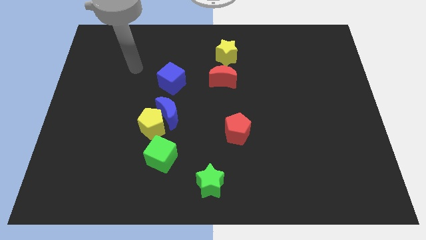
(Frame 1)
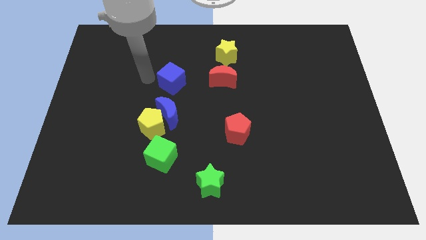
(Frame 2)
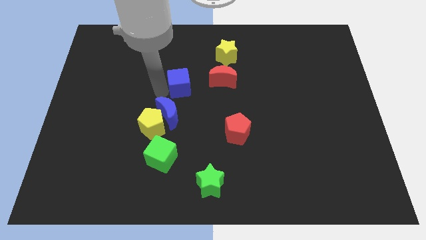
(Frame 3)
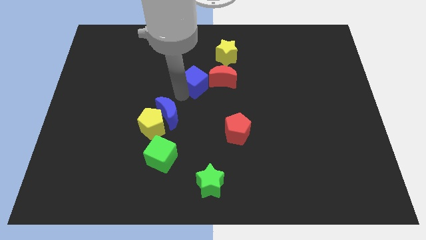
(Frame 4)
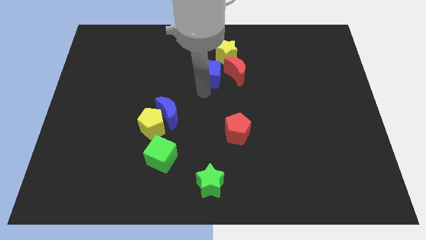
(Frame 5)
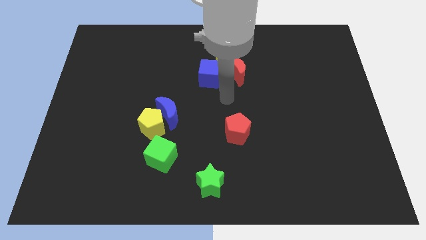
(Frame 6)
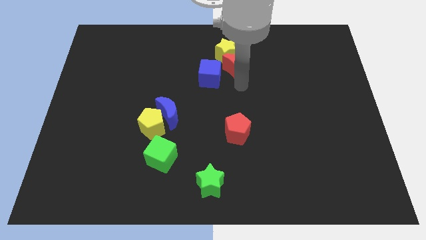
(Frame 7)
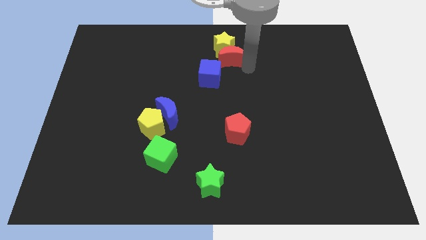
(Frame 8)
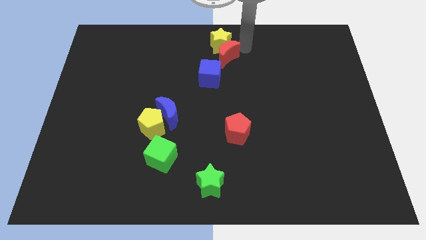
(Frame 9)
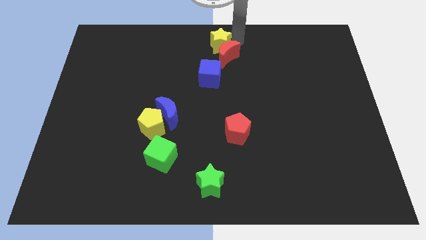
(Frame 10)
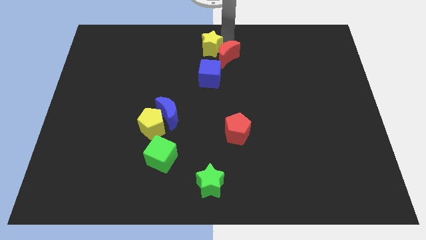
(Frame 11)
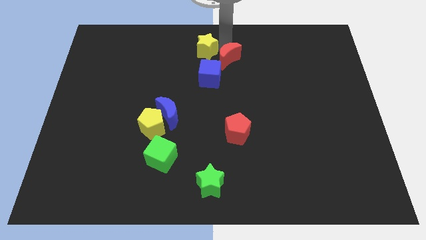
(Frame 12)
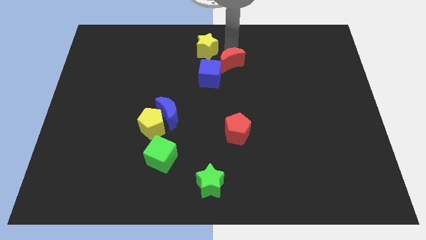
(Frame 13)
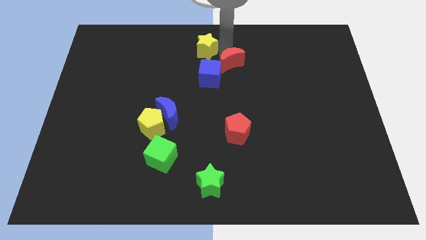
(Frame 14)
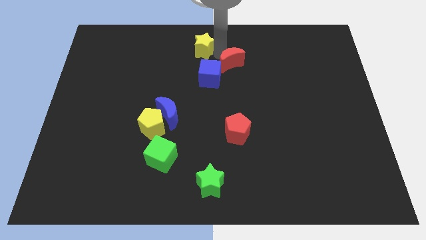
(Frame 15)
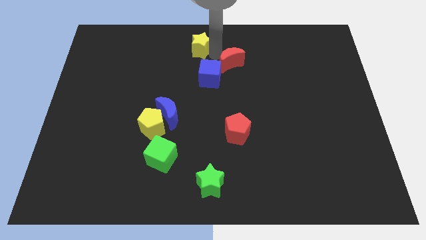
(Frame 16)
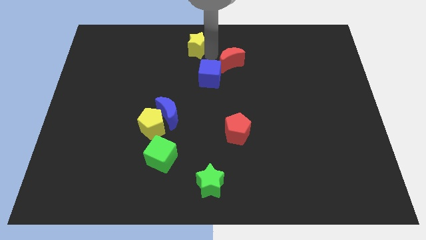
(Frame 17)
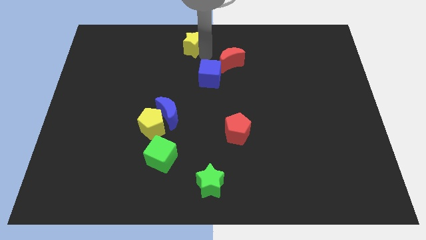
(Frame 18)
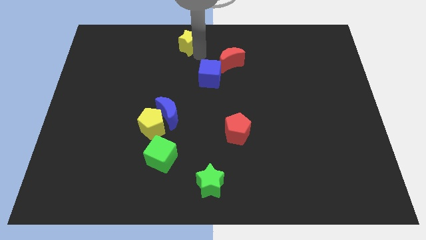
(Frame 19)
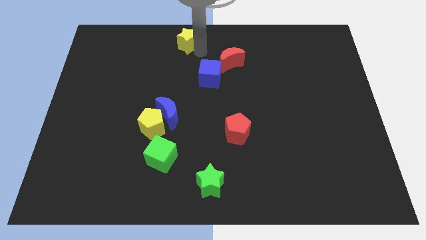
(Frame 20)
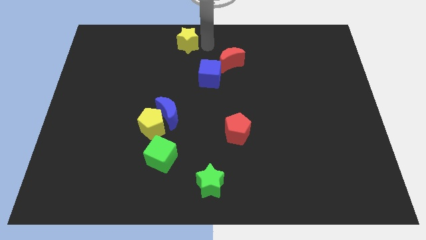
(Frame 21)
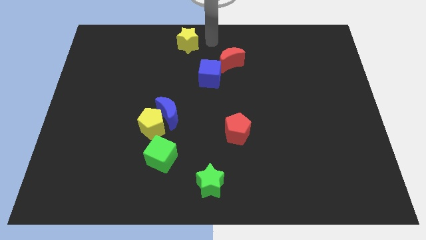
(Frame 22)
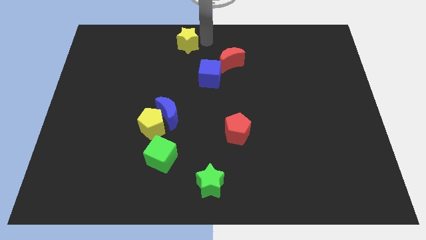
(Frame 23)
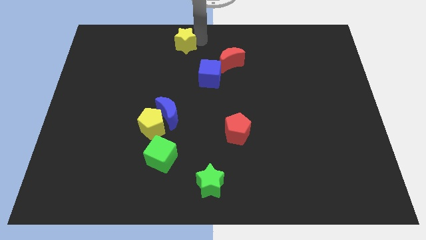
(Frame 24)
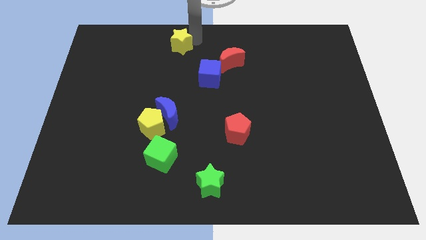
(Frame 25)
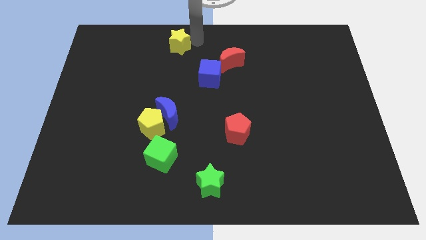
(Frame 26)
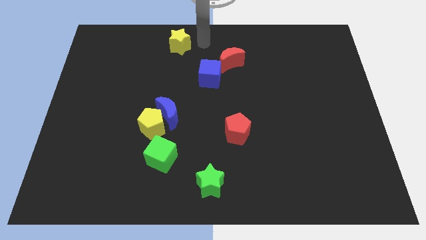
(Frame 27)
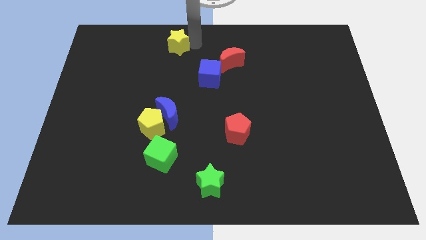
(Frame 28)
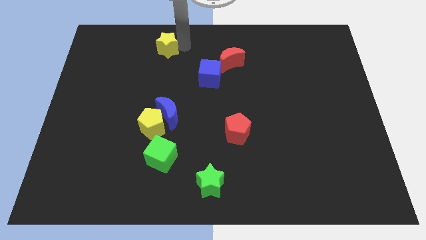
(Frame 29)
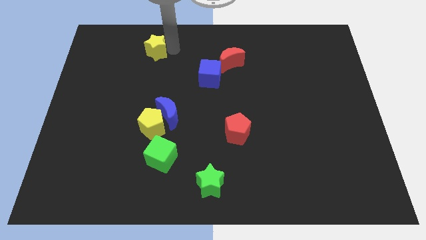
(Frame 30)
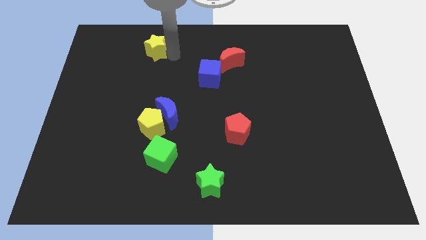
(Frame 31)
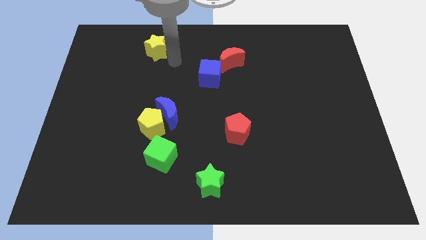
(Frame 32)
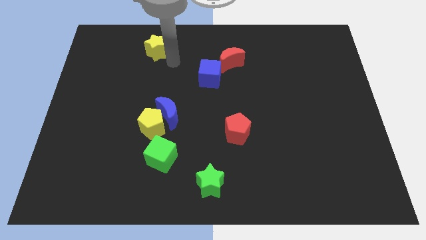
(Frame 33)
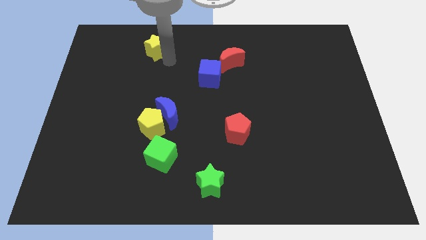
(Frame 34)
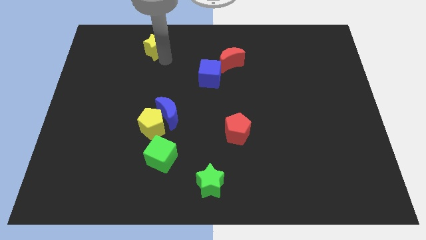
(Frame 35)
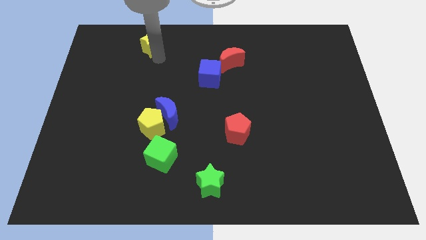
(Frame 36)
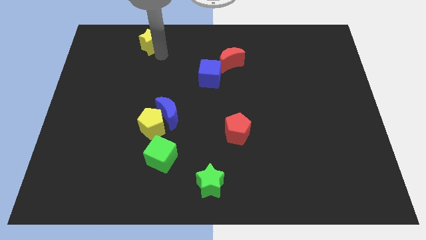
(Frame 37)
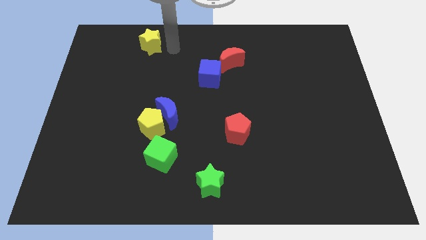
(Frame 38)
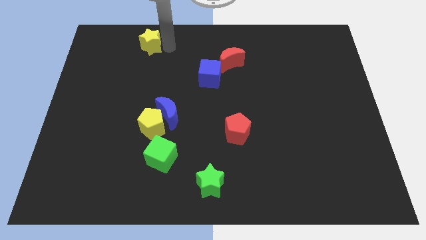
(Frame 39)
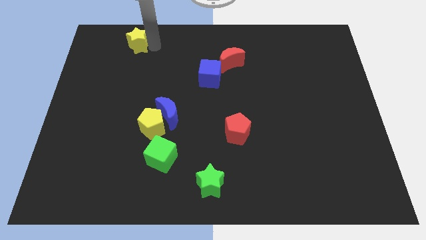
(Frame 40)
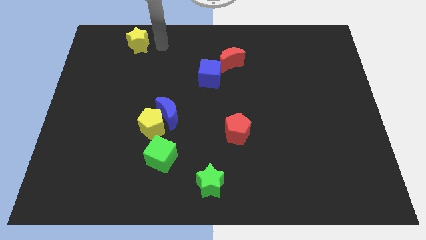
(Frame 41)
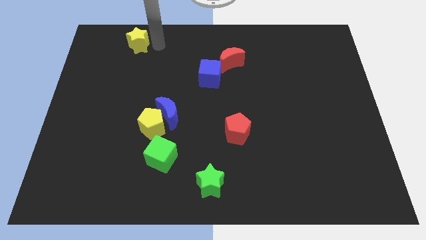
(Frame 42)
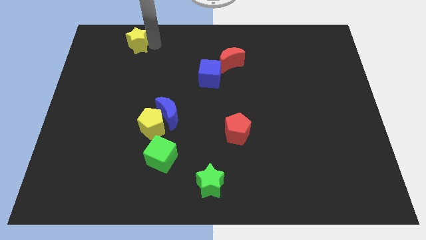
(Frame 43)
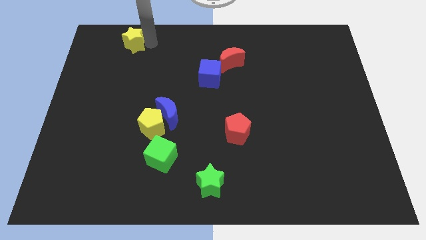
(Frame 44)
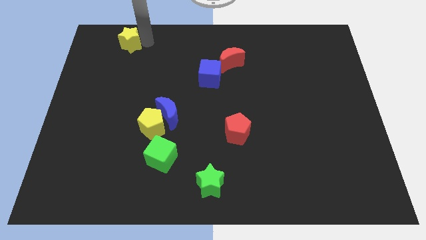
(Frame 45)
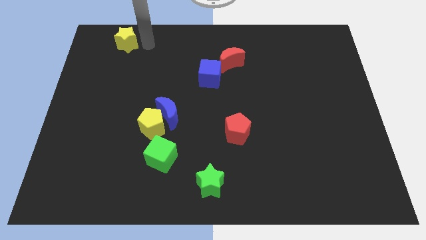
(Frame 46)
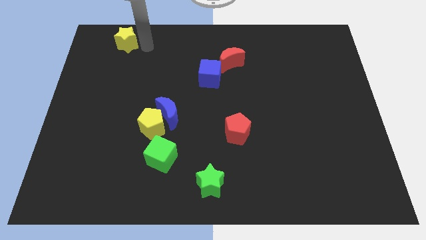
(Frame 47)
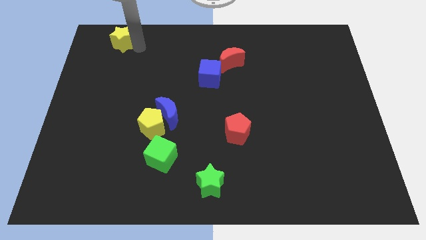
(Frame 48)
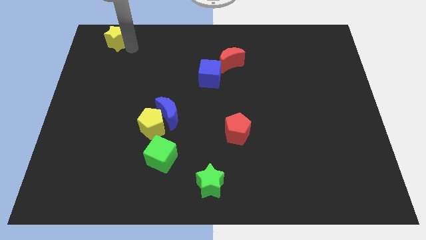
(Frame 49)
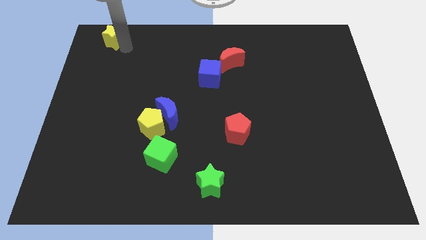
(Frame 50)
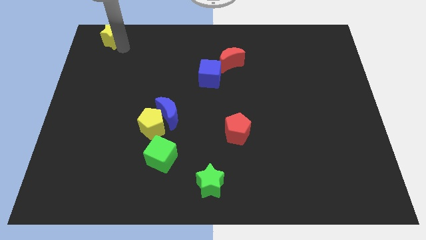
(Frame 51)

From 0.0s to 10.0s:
slide the yellow star to the top left of the board

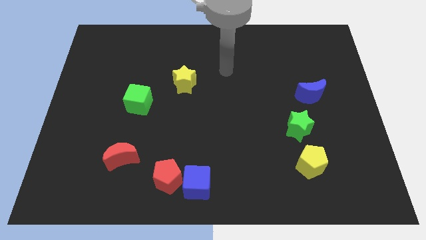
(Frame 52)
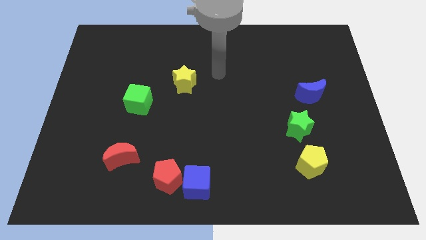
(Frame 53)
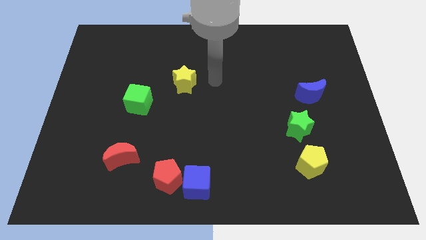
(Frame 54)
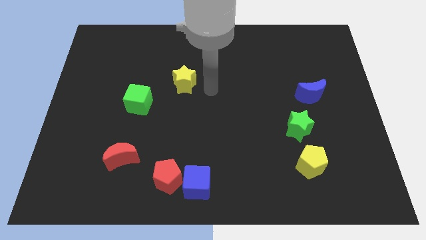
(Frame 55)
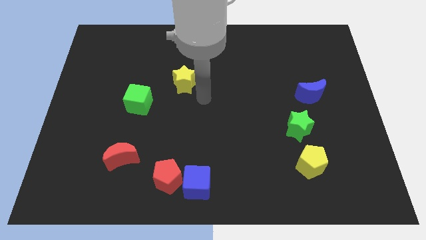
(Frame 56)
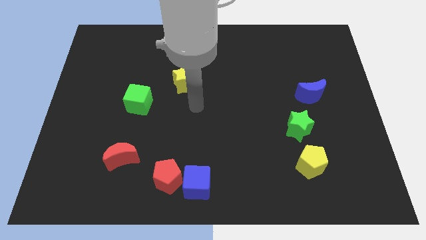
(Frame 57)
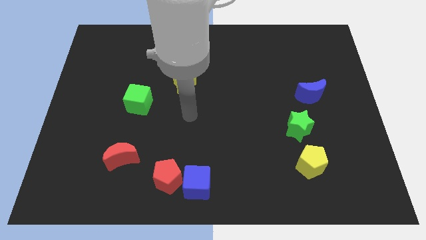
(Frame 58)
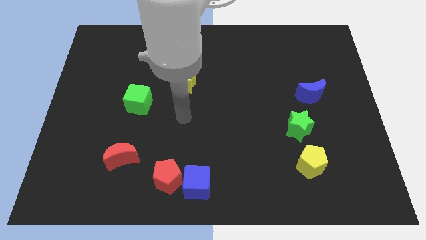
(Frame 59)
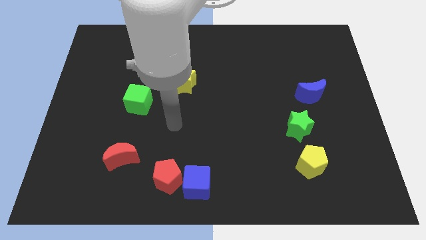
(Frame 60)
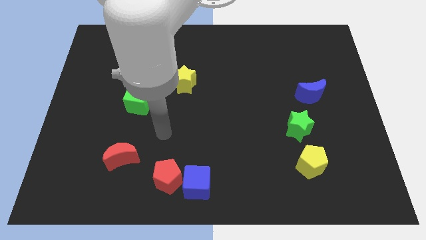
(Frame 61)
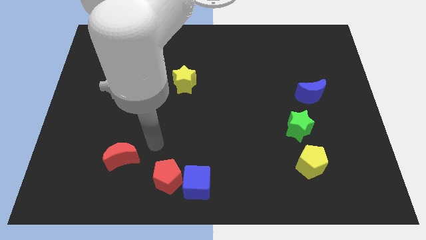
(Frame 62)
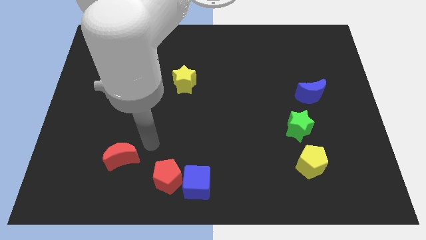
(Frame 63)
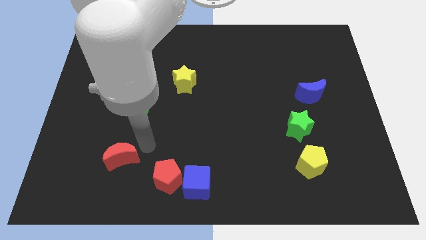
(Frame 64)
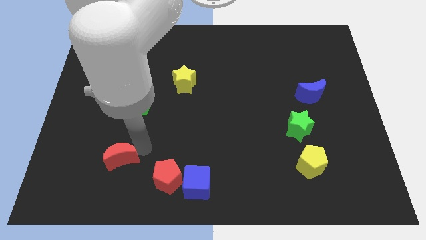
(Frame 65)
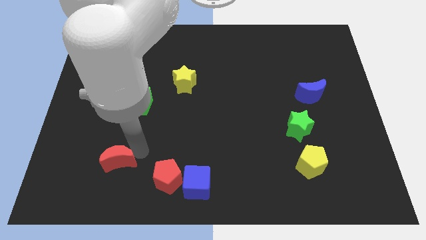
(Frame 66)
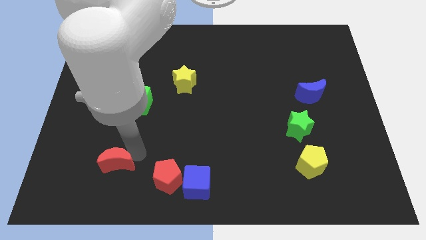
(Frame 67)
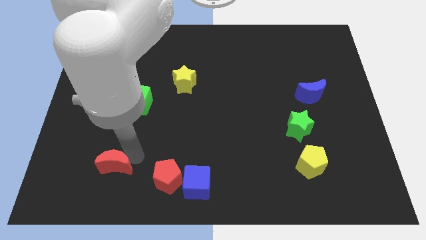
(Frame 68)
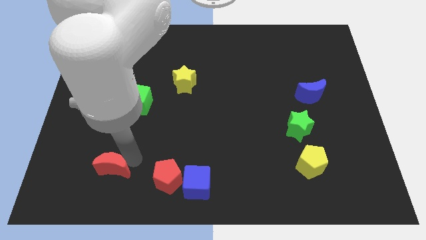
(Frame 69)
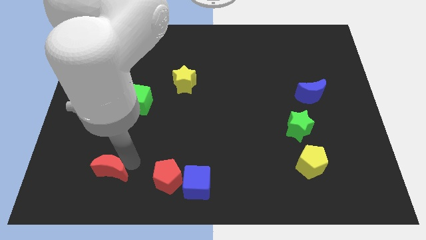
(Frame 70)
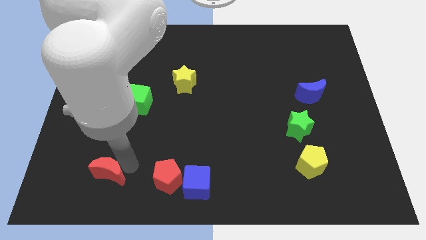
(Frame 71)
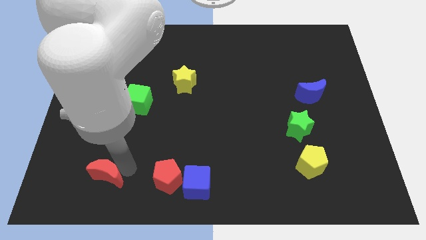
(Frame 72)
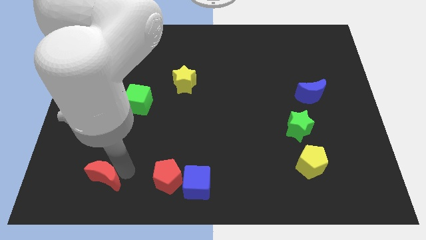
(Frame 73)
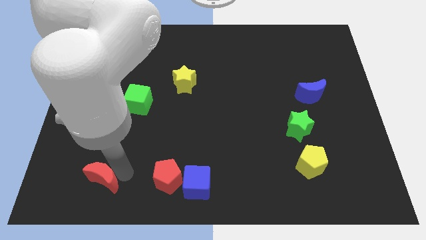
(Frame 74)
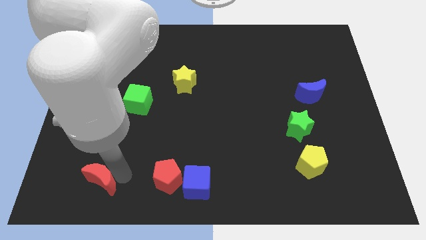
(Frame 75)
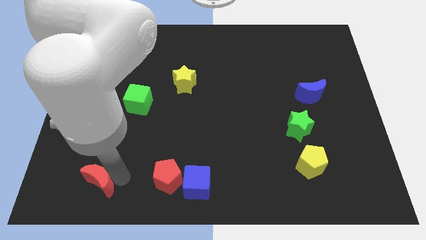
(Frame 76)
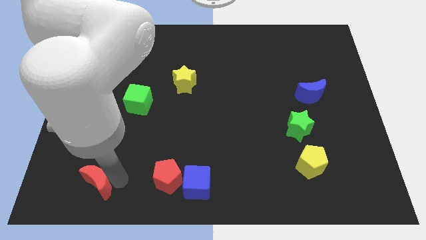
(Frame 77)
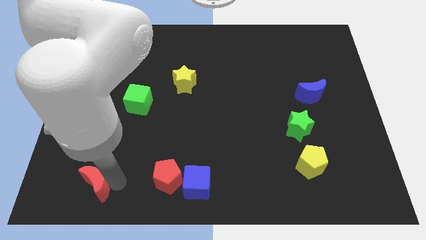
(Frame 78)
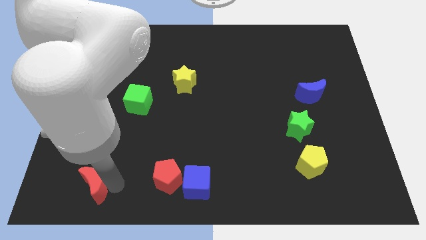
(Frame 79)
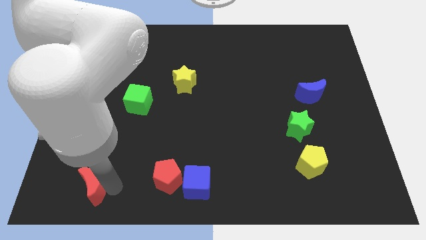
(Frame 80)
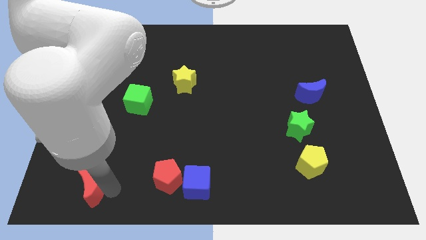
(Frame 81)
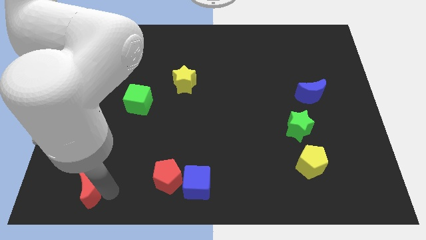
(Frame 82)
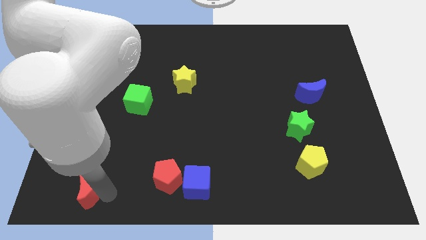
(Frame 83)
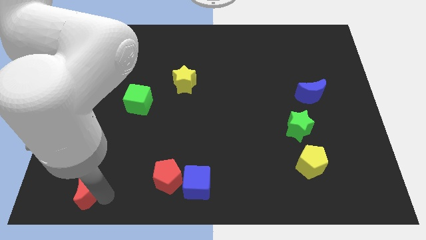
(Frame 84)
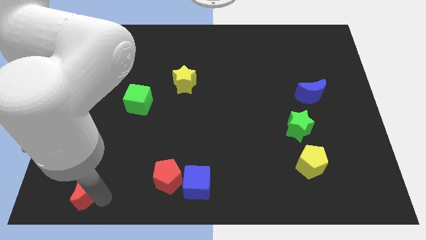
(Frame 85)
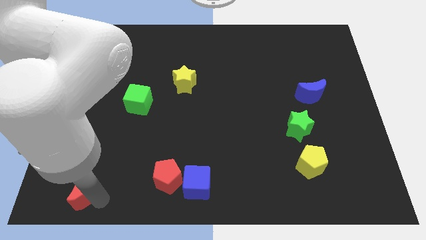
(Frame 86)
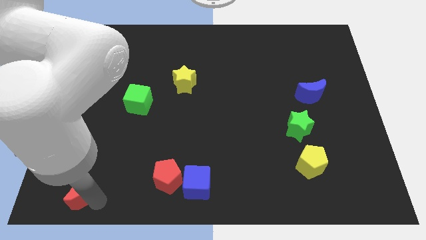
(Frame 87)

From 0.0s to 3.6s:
move the red moon to the lower left corner
